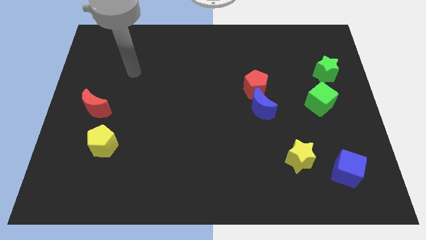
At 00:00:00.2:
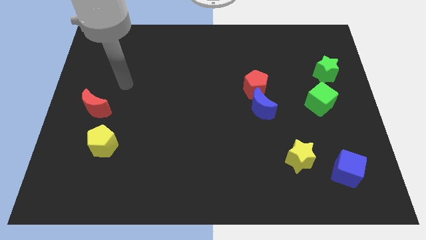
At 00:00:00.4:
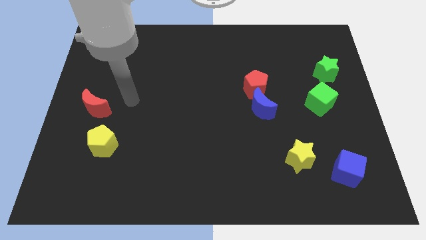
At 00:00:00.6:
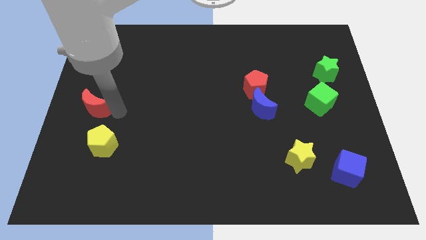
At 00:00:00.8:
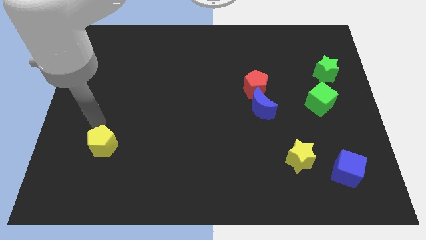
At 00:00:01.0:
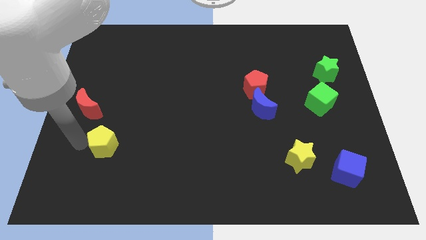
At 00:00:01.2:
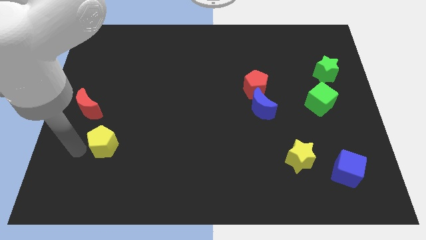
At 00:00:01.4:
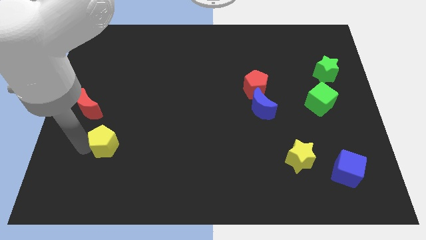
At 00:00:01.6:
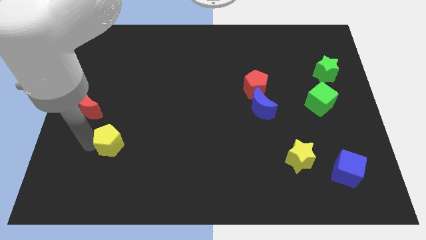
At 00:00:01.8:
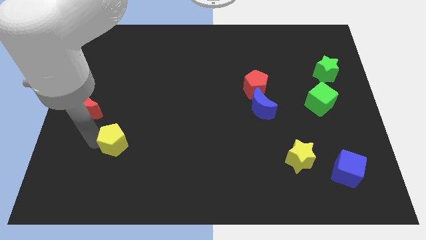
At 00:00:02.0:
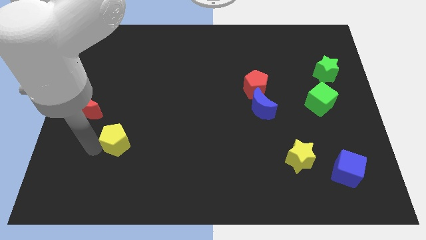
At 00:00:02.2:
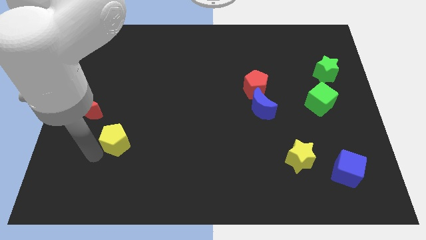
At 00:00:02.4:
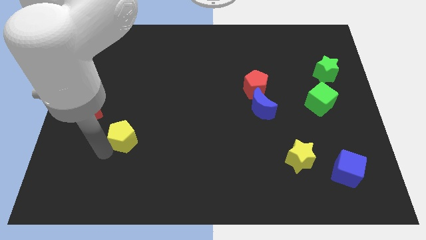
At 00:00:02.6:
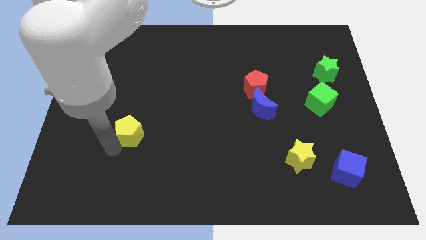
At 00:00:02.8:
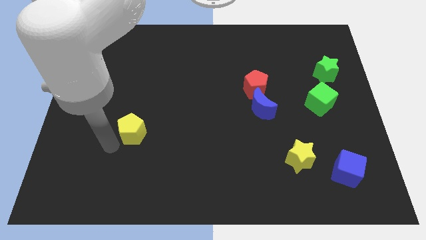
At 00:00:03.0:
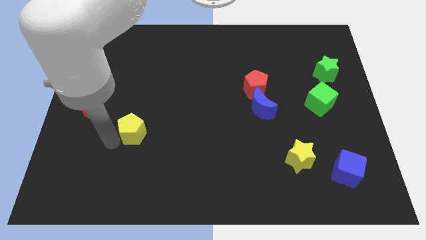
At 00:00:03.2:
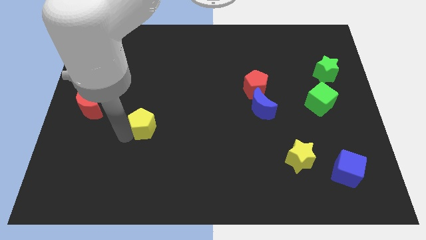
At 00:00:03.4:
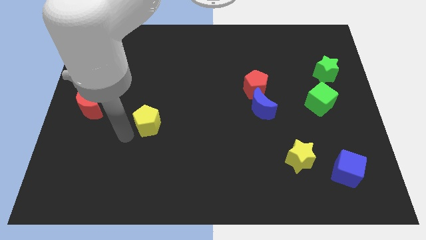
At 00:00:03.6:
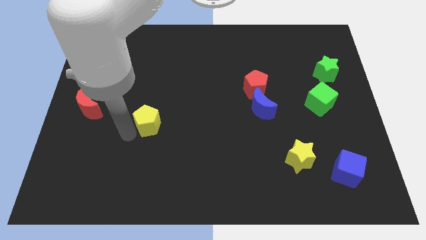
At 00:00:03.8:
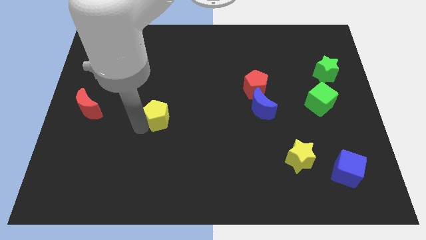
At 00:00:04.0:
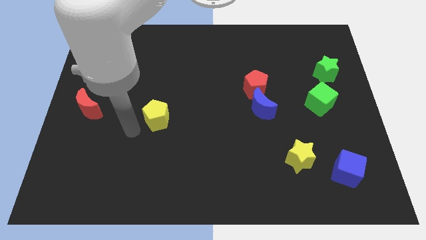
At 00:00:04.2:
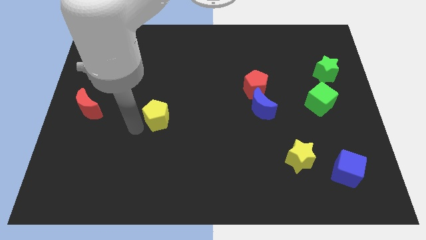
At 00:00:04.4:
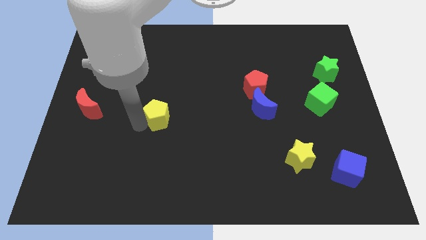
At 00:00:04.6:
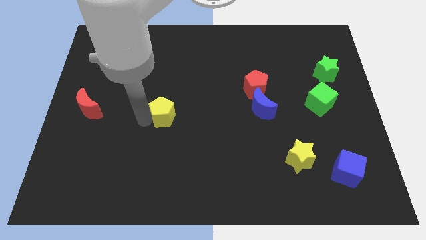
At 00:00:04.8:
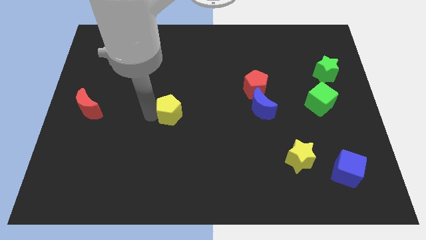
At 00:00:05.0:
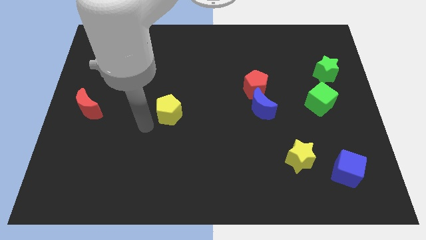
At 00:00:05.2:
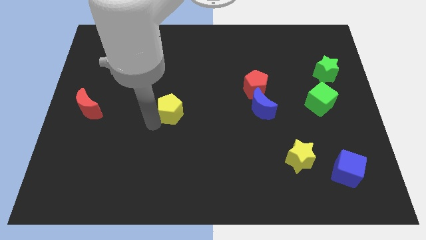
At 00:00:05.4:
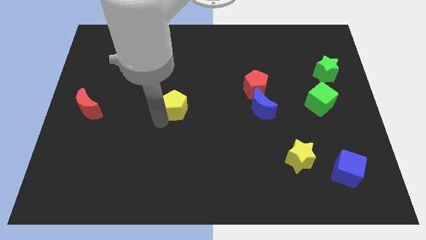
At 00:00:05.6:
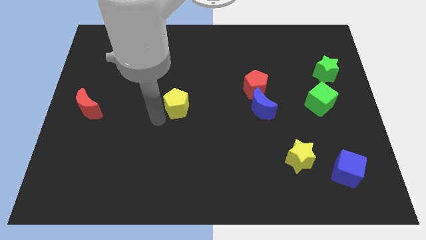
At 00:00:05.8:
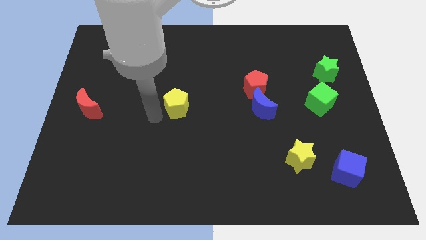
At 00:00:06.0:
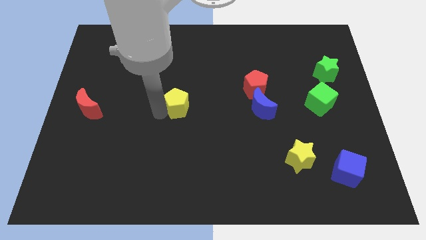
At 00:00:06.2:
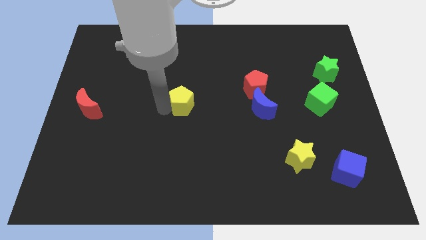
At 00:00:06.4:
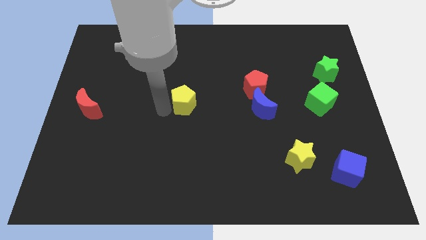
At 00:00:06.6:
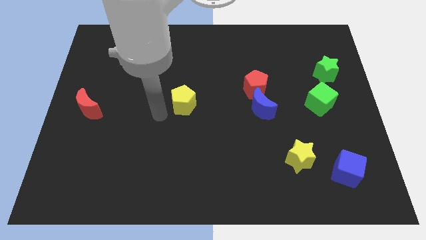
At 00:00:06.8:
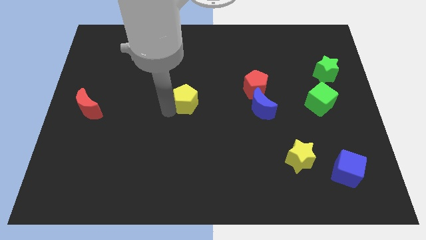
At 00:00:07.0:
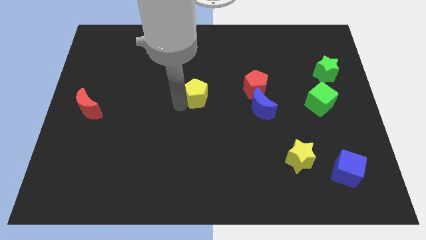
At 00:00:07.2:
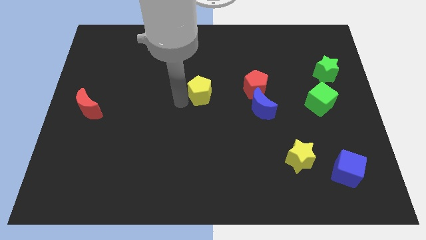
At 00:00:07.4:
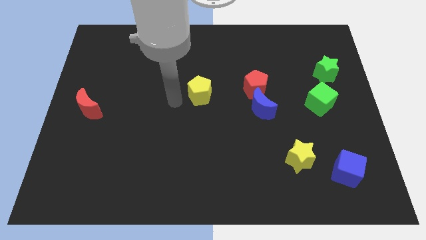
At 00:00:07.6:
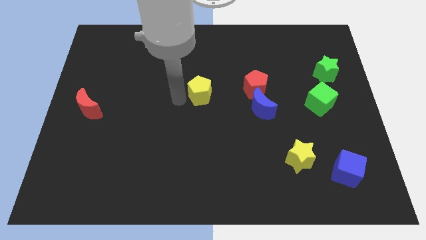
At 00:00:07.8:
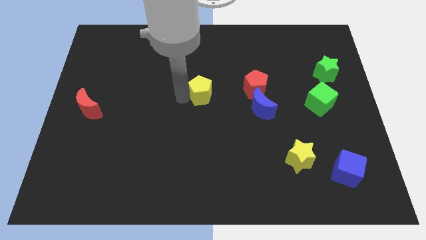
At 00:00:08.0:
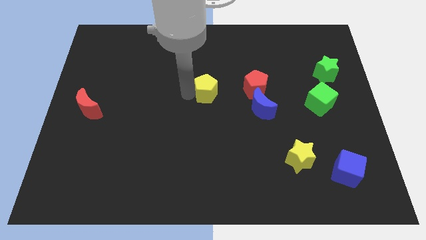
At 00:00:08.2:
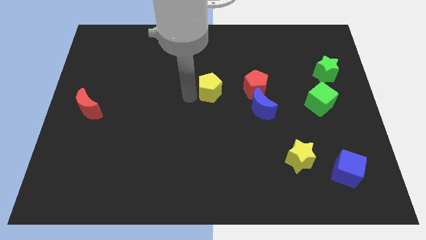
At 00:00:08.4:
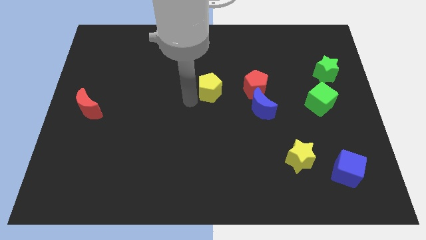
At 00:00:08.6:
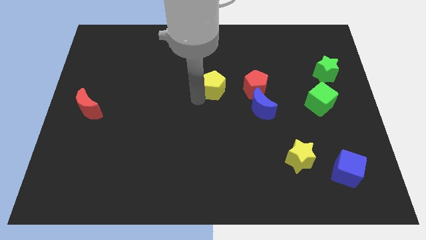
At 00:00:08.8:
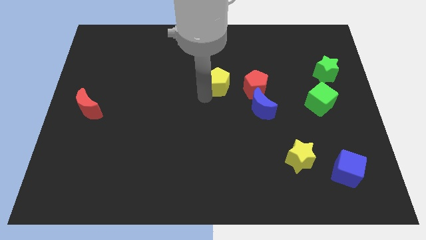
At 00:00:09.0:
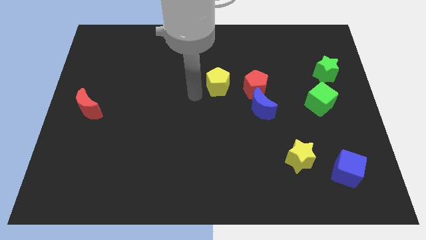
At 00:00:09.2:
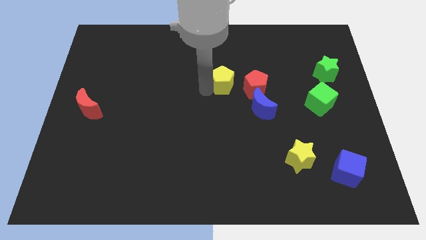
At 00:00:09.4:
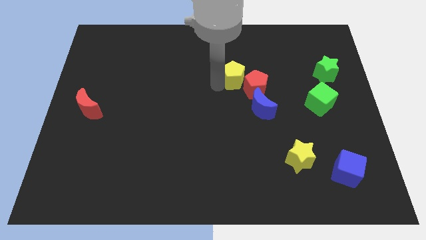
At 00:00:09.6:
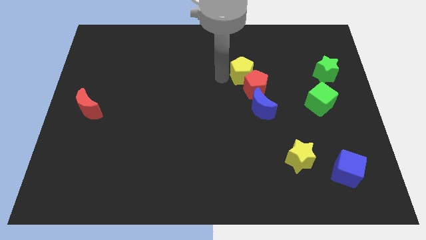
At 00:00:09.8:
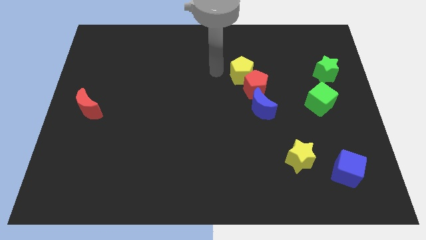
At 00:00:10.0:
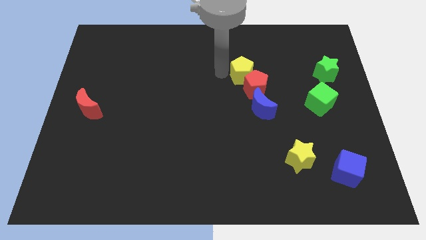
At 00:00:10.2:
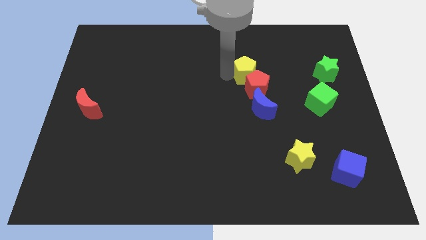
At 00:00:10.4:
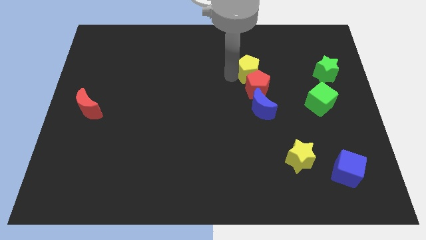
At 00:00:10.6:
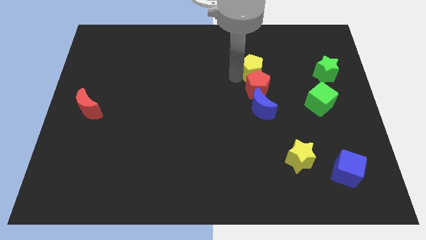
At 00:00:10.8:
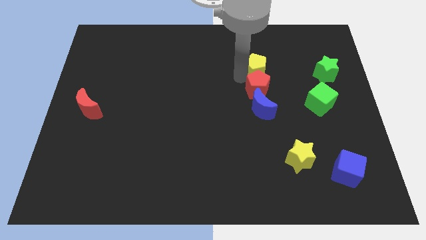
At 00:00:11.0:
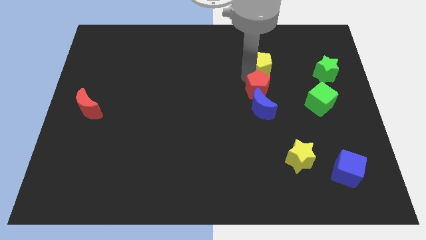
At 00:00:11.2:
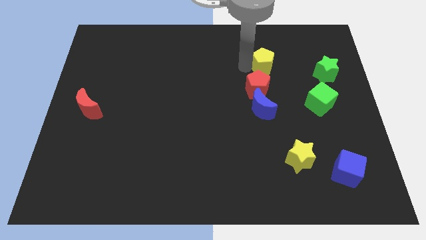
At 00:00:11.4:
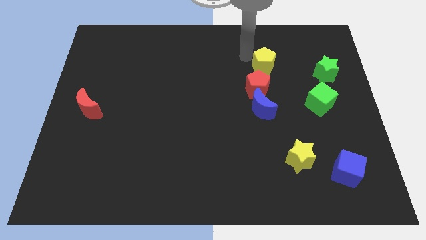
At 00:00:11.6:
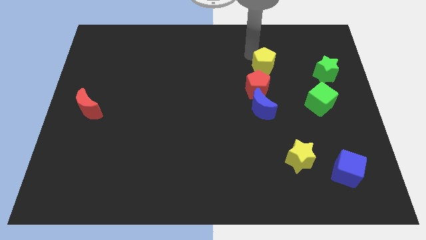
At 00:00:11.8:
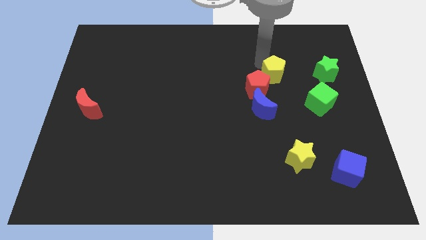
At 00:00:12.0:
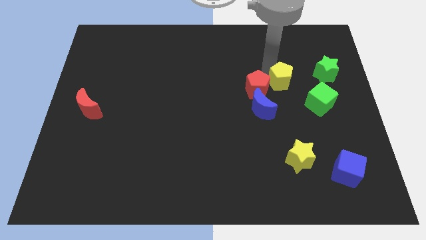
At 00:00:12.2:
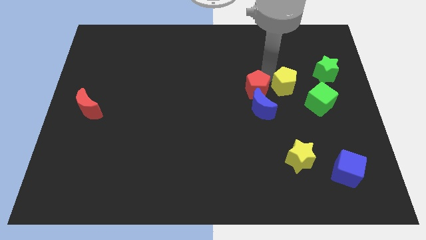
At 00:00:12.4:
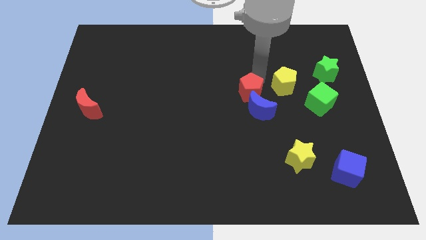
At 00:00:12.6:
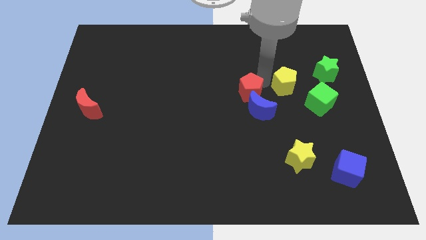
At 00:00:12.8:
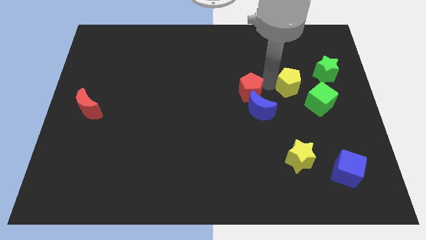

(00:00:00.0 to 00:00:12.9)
put the yellow pentagon diagonally down and to the left of the green star

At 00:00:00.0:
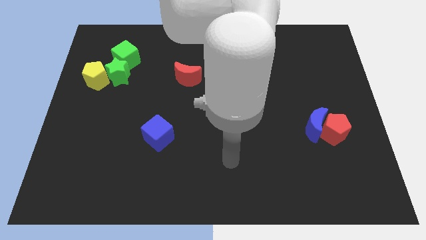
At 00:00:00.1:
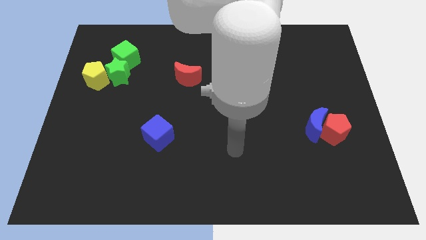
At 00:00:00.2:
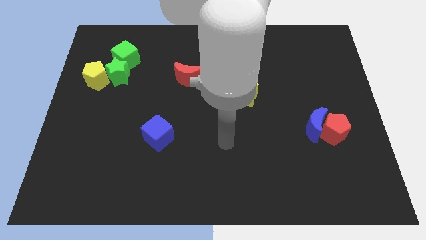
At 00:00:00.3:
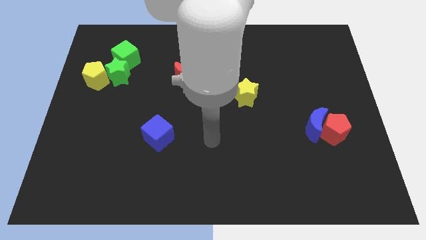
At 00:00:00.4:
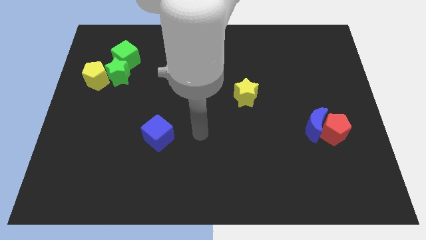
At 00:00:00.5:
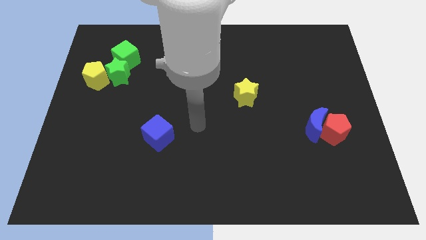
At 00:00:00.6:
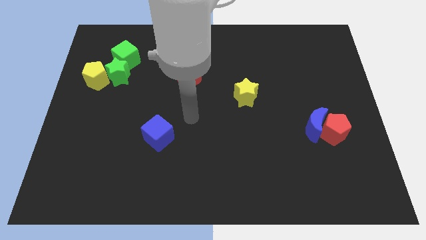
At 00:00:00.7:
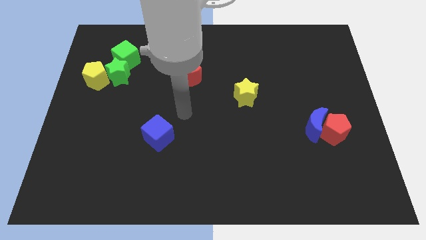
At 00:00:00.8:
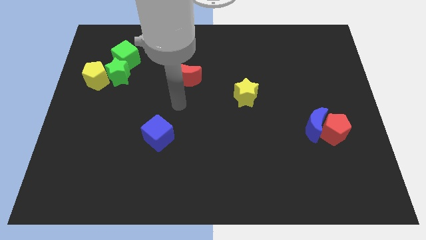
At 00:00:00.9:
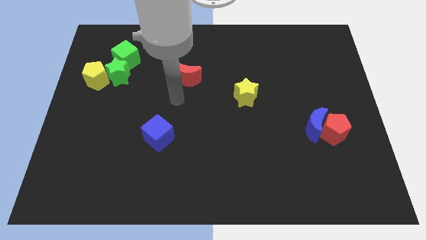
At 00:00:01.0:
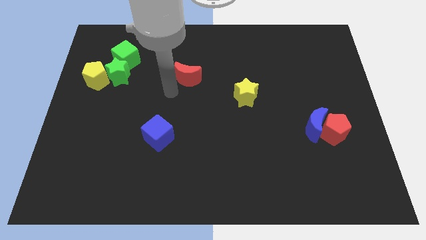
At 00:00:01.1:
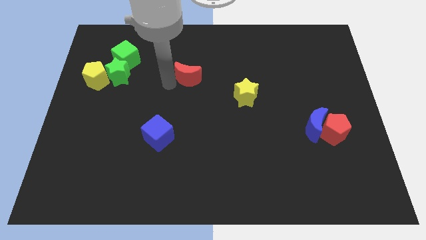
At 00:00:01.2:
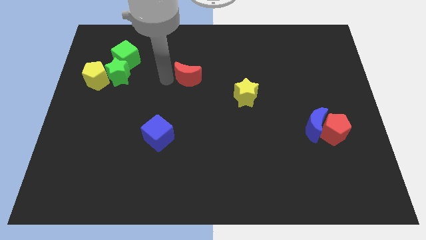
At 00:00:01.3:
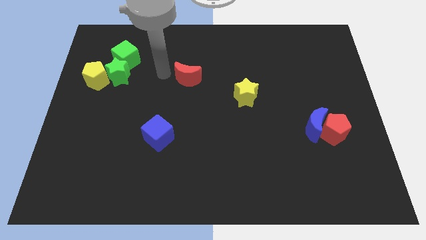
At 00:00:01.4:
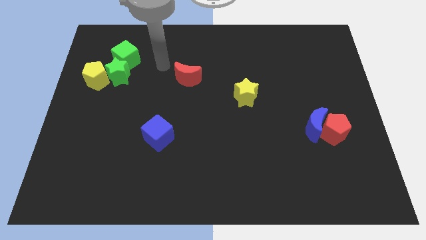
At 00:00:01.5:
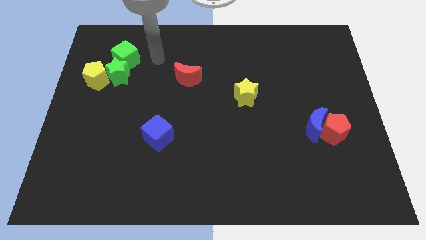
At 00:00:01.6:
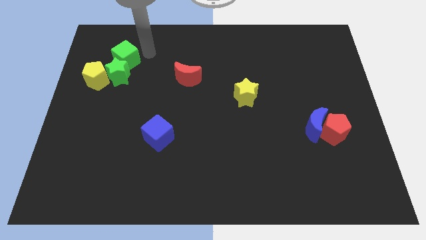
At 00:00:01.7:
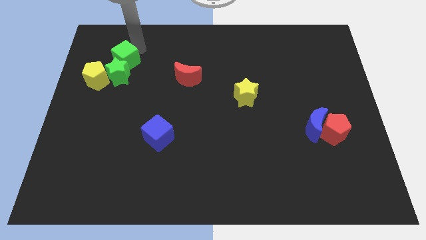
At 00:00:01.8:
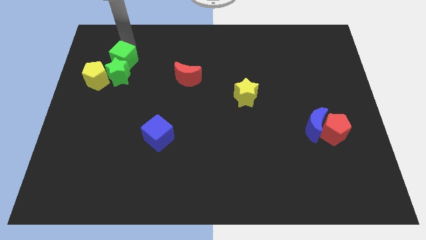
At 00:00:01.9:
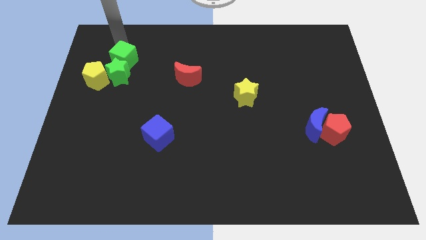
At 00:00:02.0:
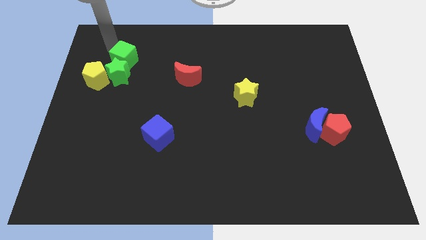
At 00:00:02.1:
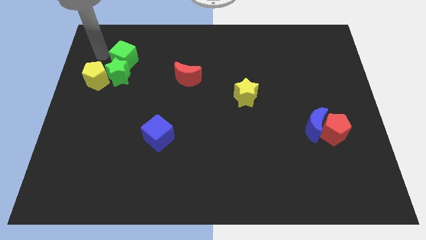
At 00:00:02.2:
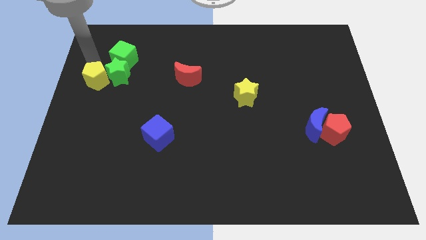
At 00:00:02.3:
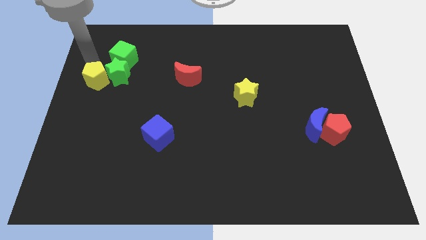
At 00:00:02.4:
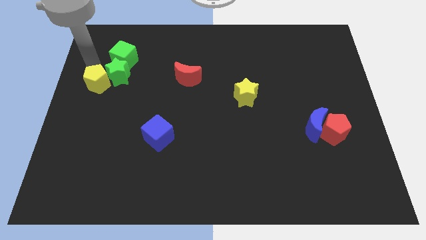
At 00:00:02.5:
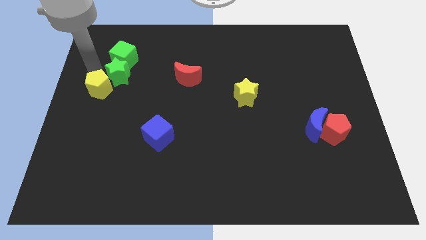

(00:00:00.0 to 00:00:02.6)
move the yellow pentagon to the bottom side of the green star
